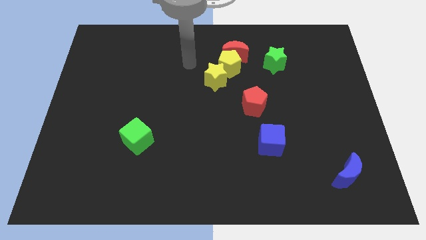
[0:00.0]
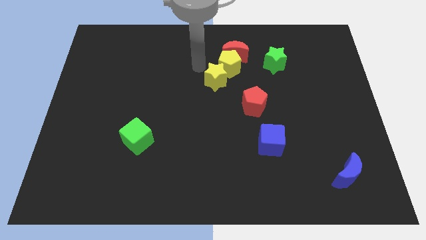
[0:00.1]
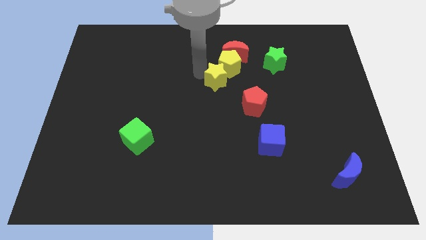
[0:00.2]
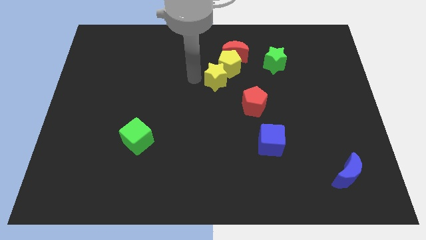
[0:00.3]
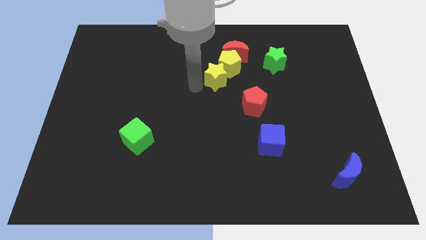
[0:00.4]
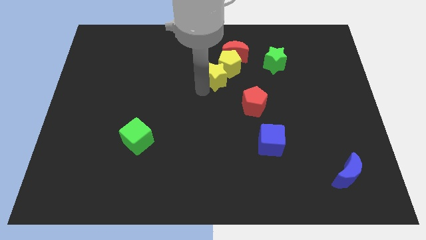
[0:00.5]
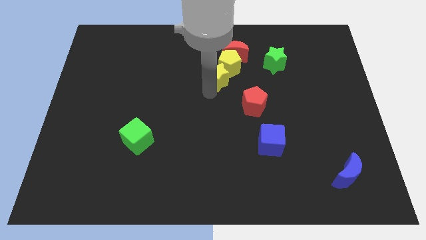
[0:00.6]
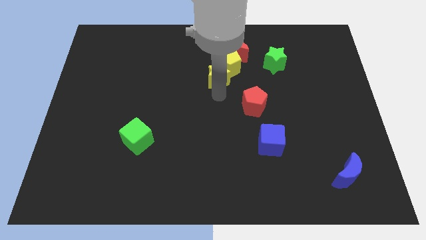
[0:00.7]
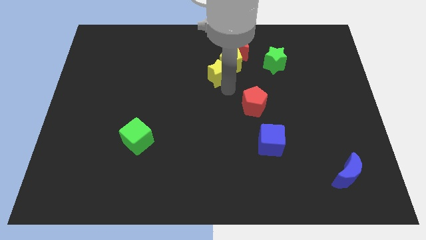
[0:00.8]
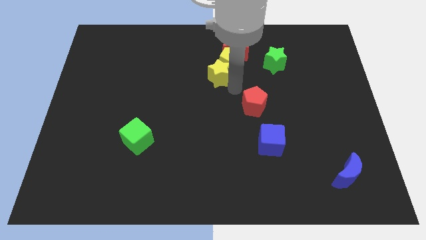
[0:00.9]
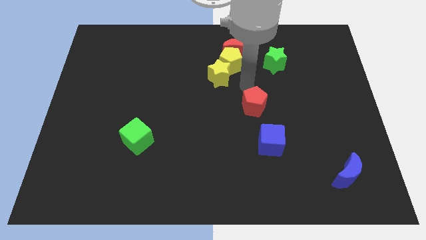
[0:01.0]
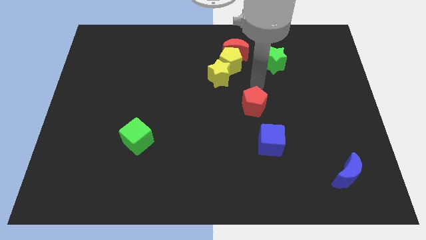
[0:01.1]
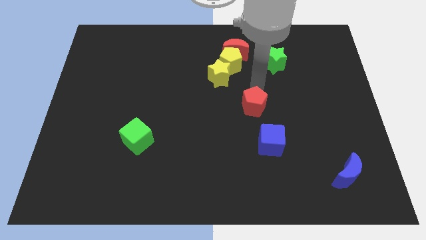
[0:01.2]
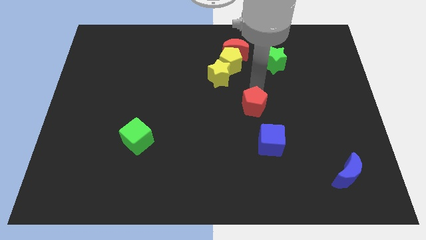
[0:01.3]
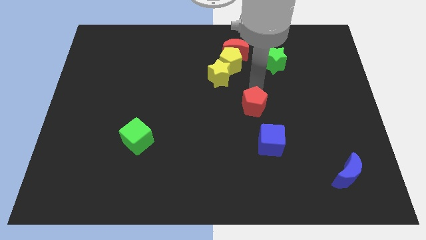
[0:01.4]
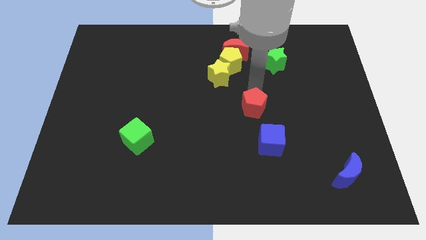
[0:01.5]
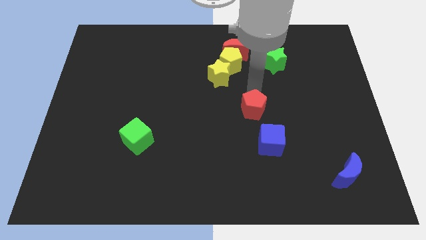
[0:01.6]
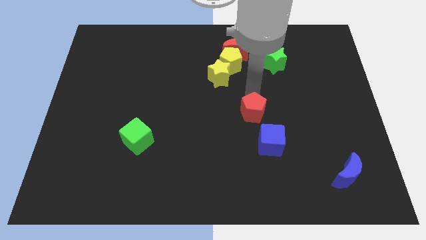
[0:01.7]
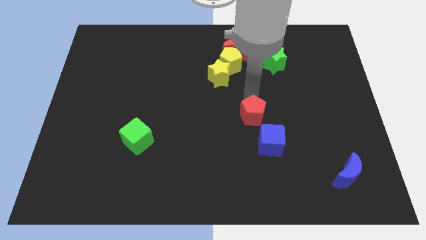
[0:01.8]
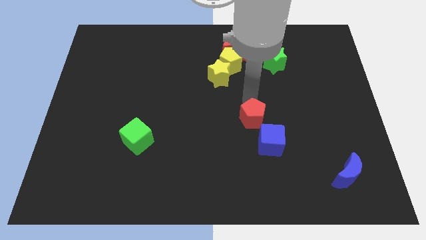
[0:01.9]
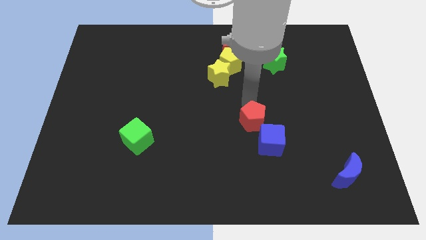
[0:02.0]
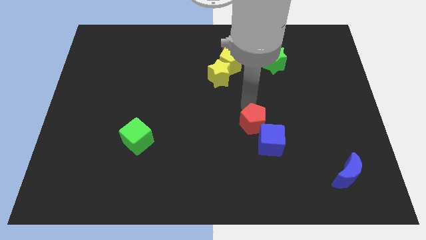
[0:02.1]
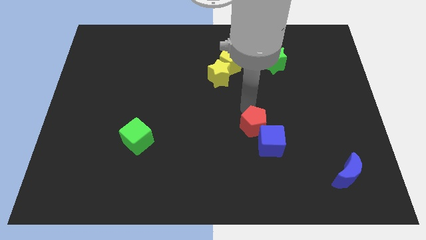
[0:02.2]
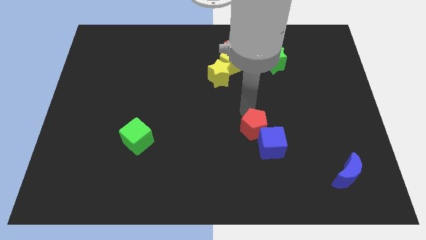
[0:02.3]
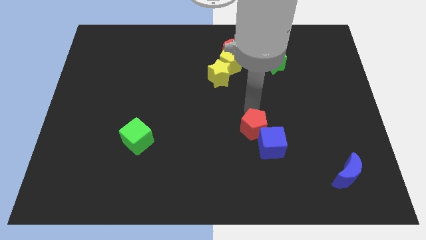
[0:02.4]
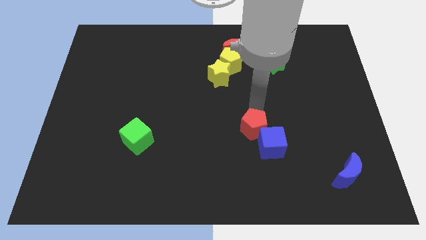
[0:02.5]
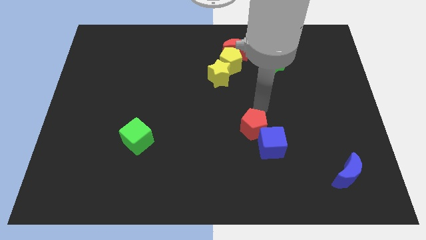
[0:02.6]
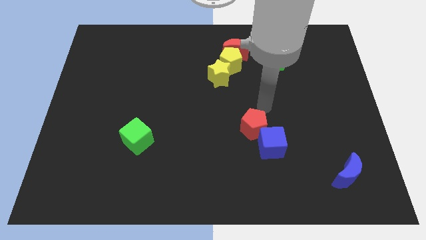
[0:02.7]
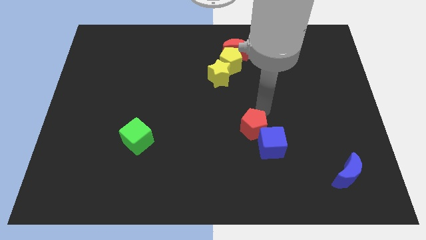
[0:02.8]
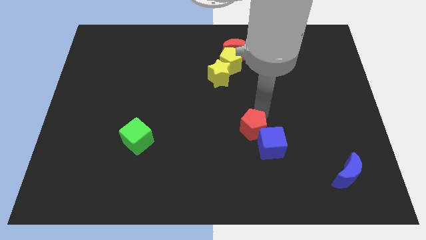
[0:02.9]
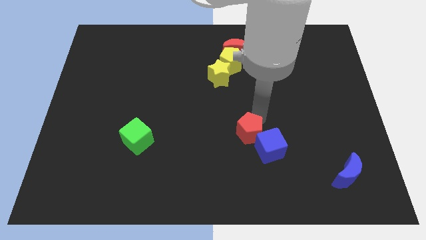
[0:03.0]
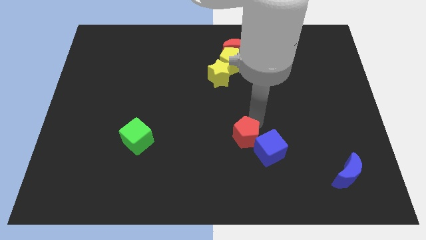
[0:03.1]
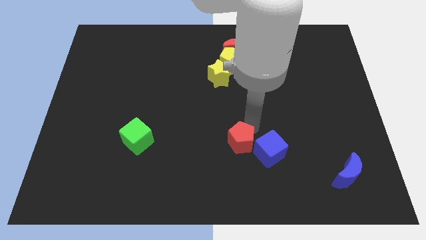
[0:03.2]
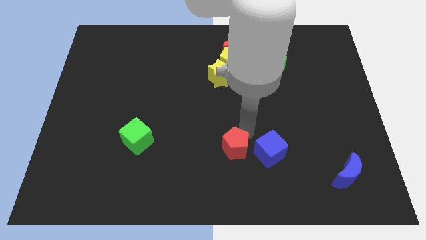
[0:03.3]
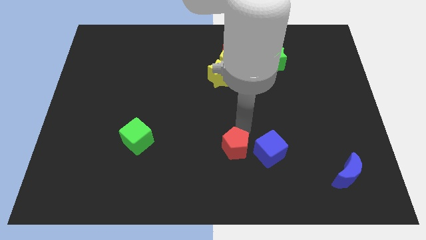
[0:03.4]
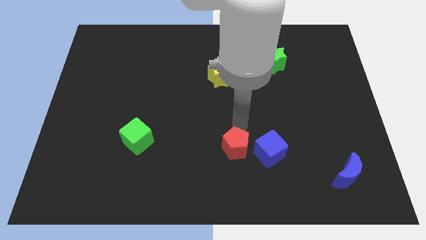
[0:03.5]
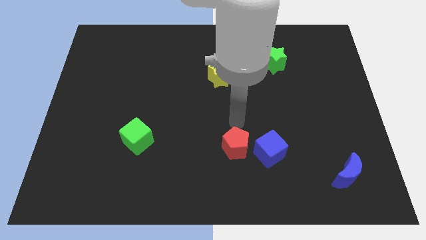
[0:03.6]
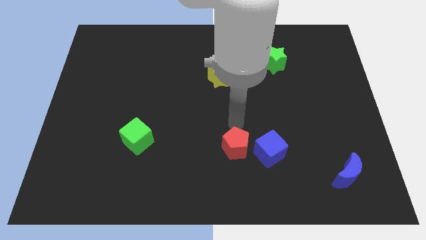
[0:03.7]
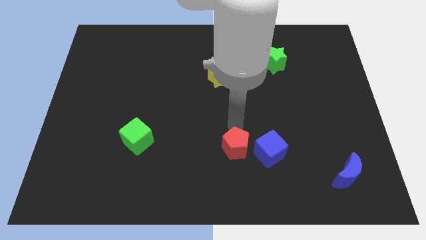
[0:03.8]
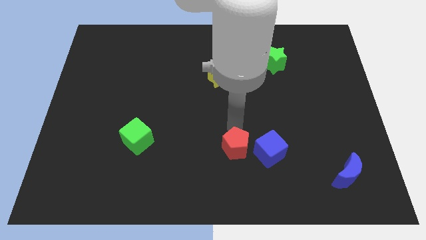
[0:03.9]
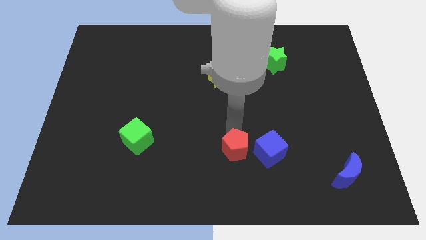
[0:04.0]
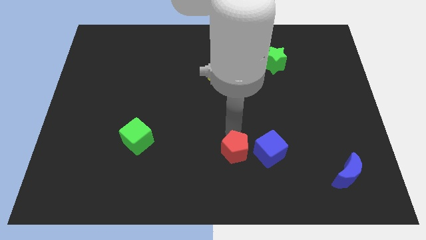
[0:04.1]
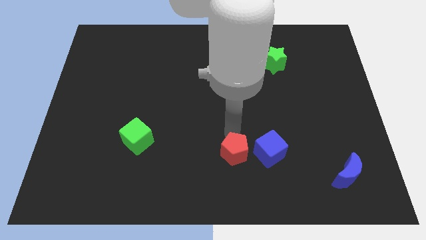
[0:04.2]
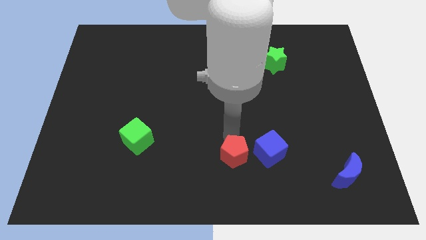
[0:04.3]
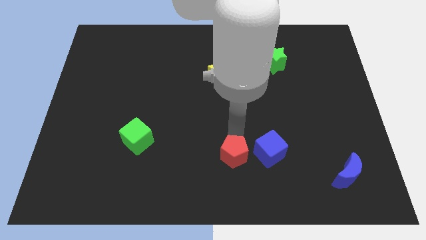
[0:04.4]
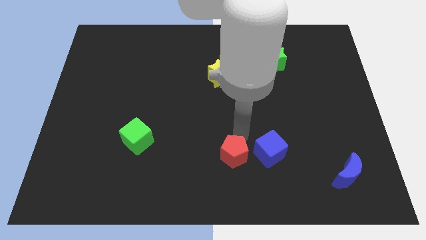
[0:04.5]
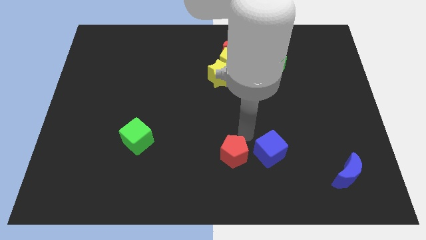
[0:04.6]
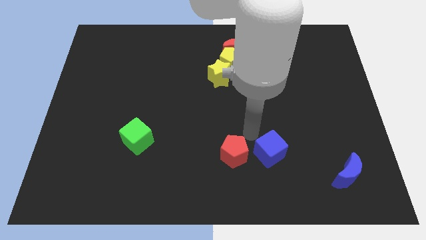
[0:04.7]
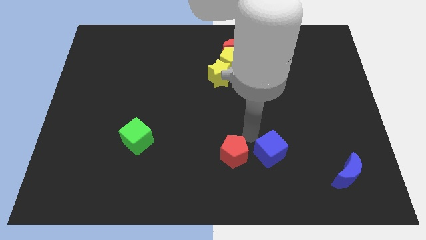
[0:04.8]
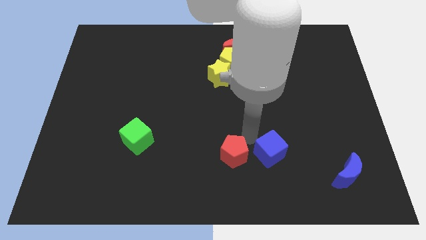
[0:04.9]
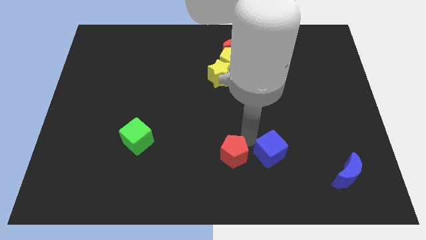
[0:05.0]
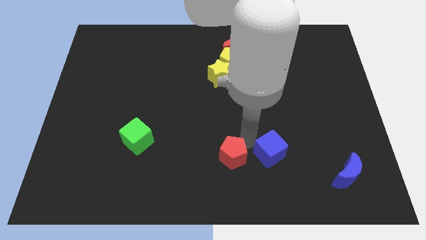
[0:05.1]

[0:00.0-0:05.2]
put the red pentagon to the bottom side
